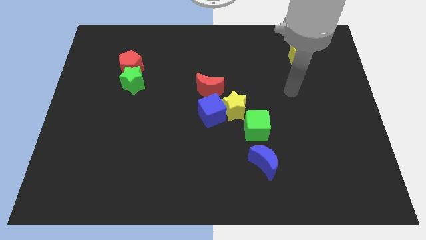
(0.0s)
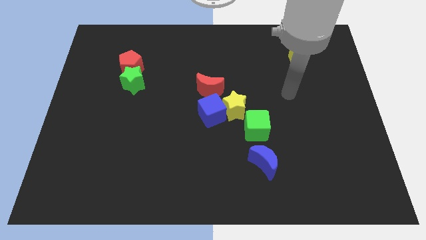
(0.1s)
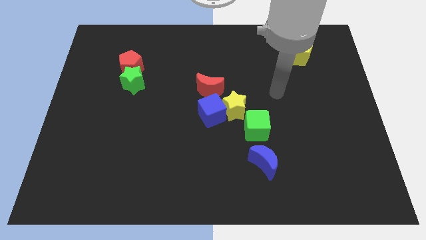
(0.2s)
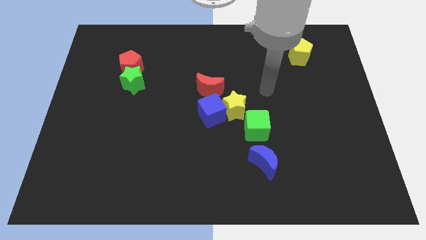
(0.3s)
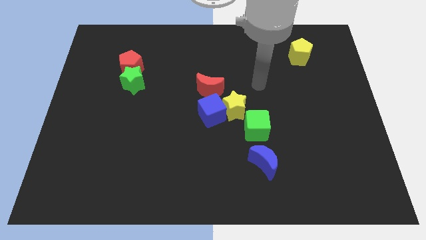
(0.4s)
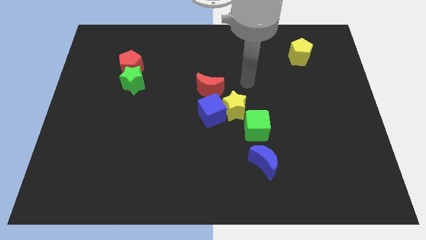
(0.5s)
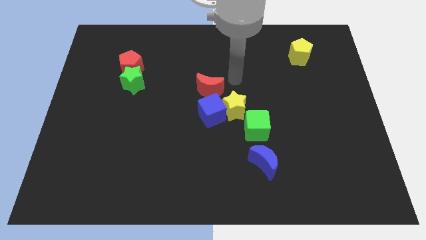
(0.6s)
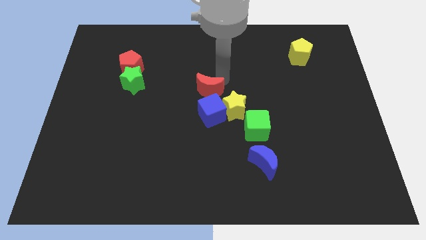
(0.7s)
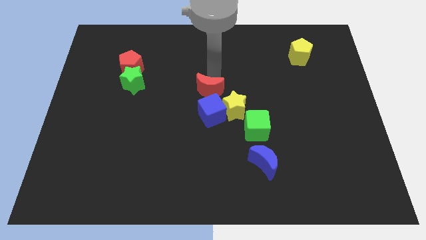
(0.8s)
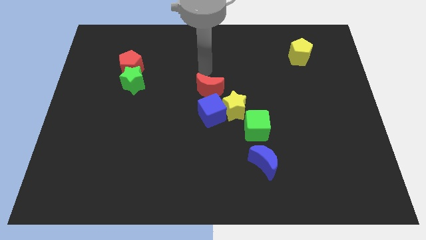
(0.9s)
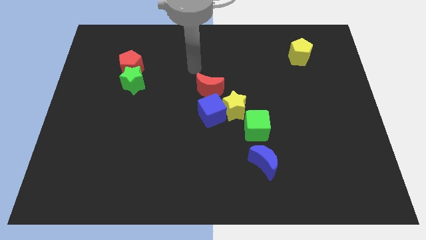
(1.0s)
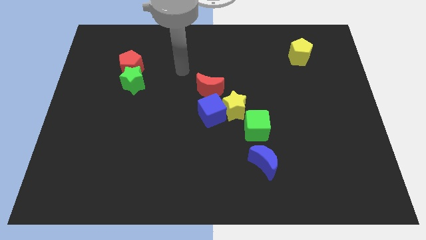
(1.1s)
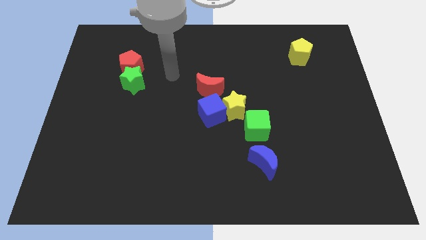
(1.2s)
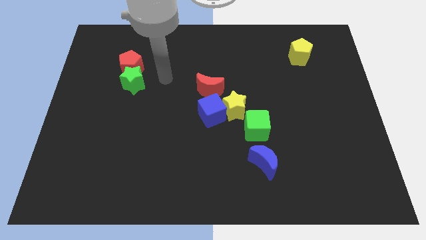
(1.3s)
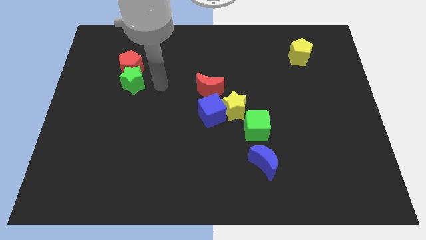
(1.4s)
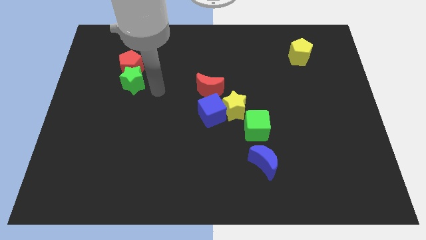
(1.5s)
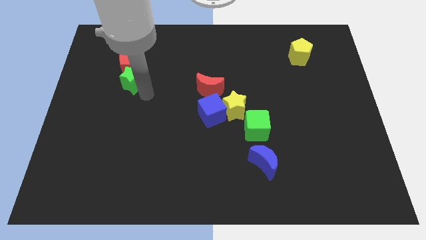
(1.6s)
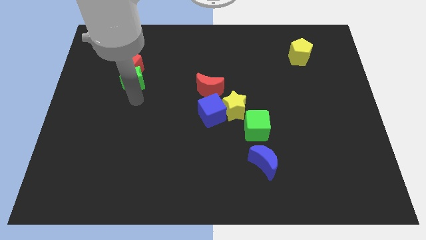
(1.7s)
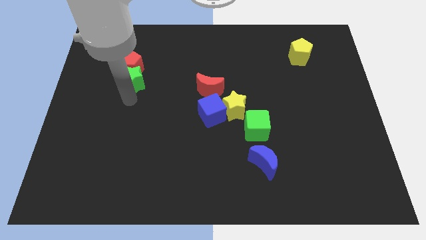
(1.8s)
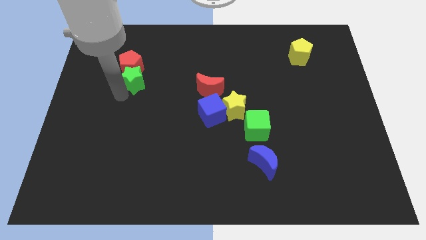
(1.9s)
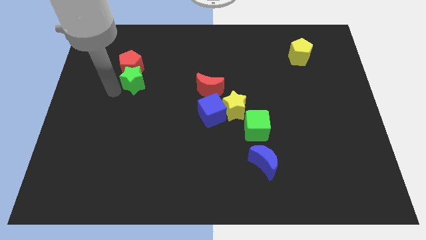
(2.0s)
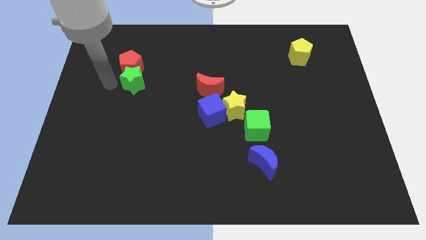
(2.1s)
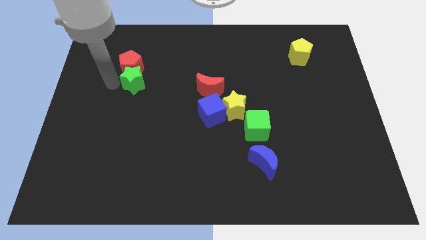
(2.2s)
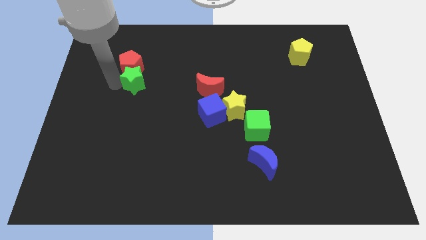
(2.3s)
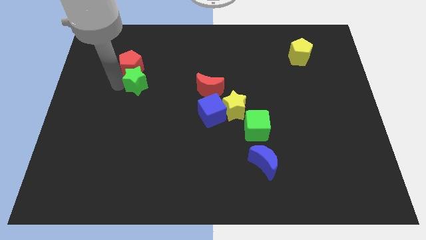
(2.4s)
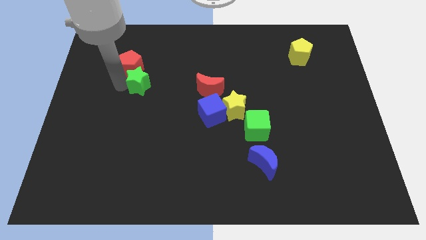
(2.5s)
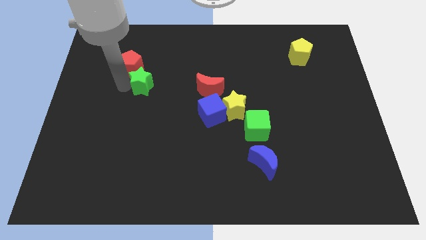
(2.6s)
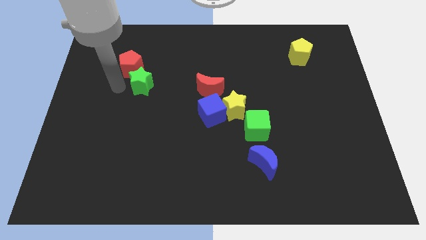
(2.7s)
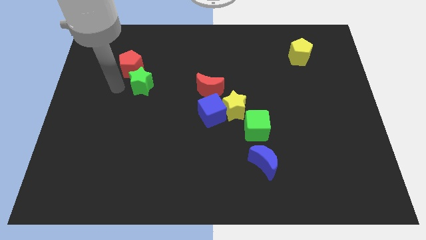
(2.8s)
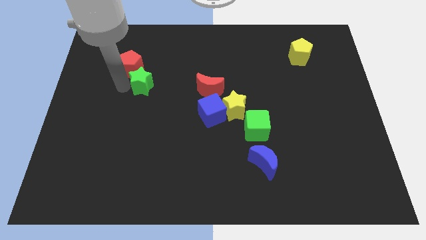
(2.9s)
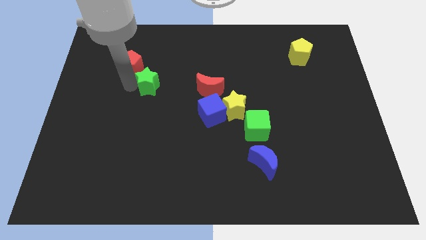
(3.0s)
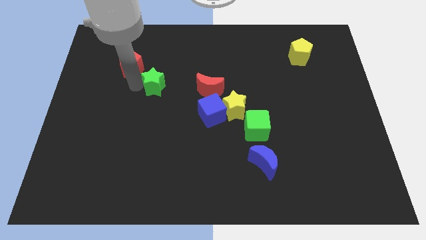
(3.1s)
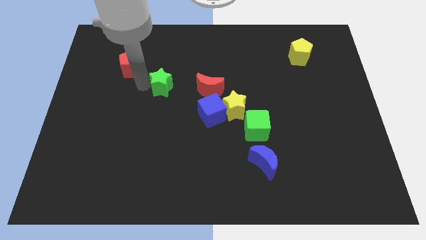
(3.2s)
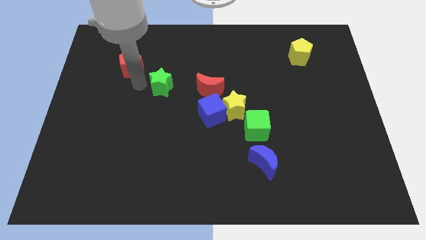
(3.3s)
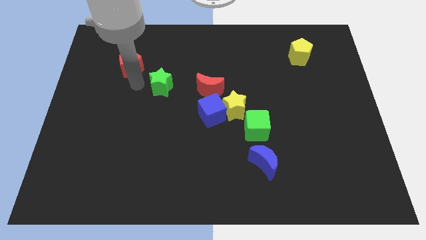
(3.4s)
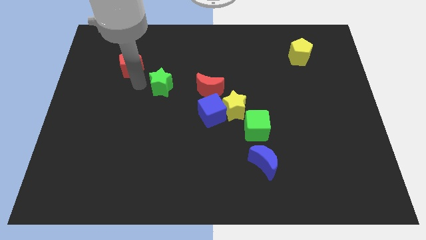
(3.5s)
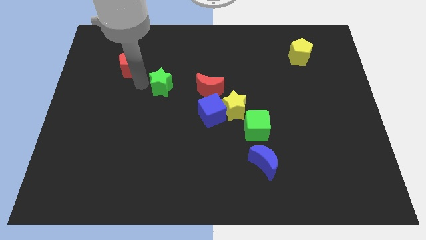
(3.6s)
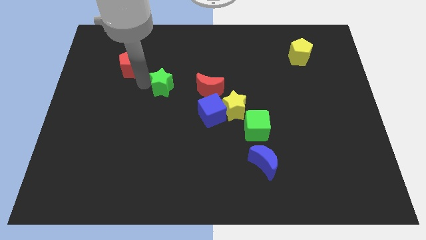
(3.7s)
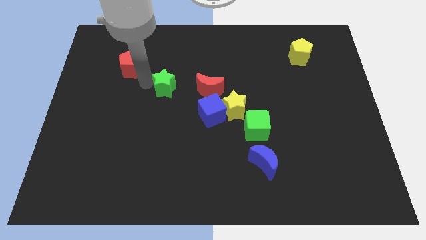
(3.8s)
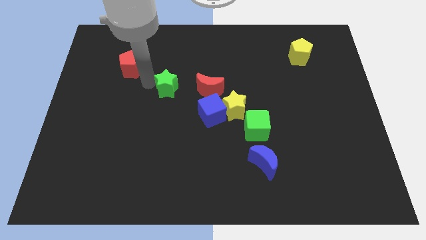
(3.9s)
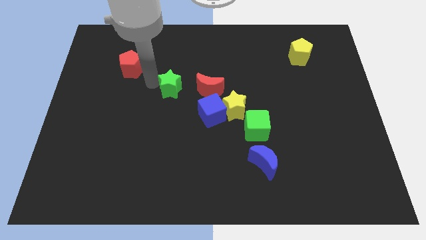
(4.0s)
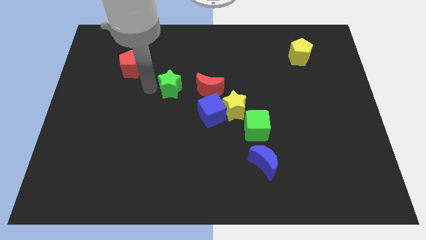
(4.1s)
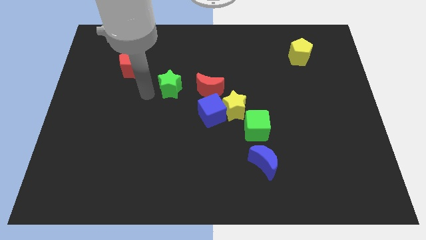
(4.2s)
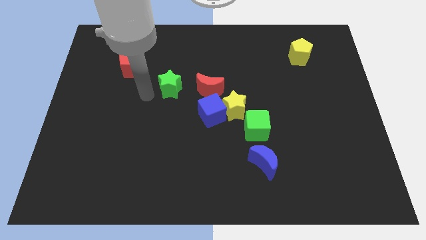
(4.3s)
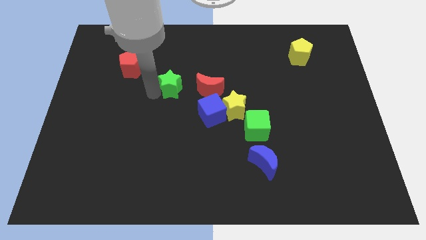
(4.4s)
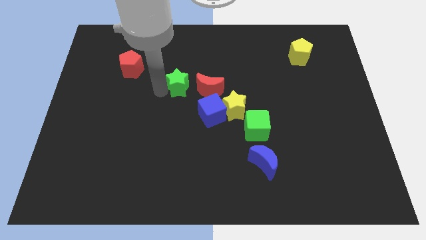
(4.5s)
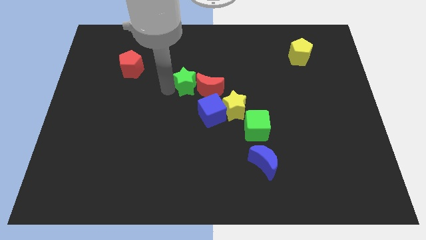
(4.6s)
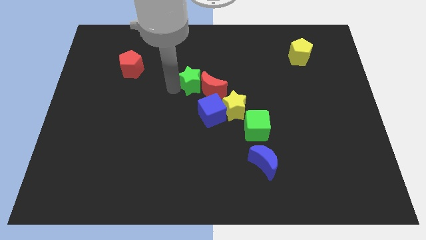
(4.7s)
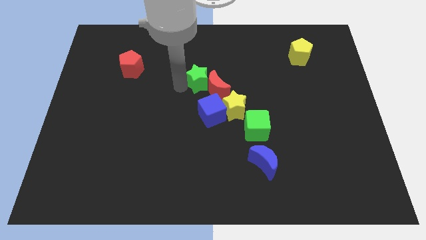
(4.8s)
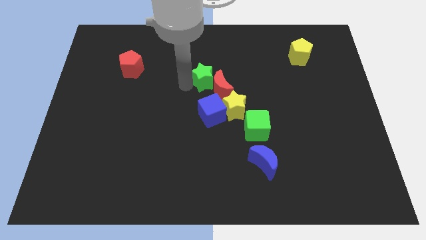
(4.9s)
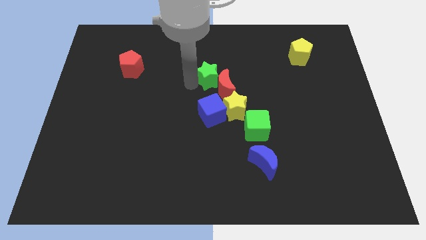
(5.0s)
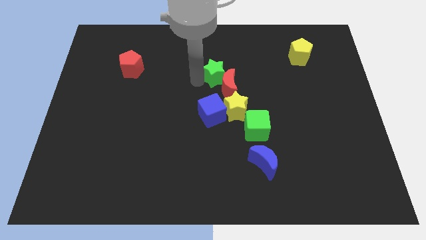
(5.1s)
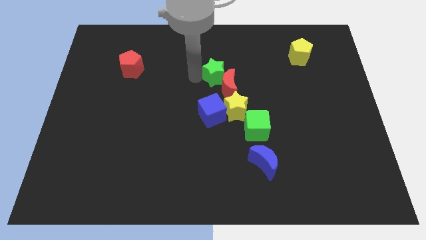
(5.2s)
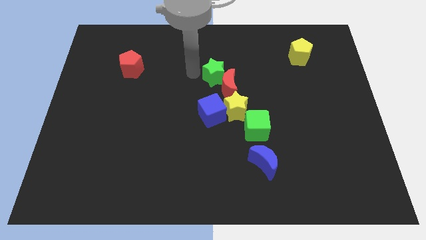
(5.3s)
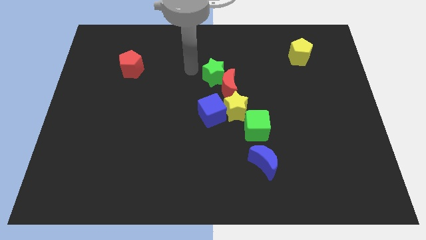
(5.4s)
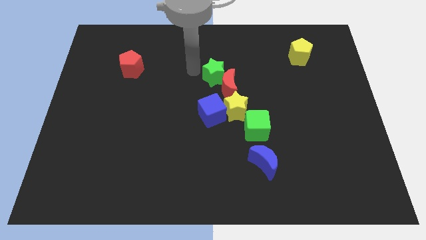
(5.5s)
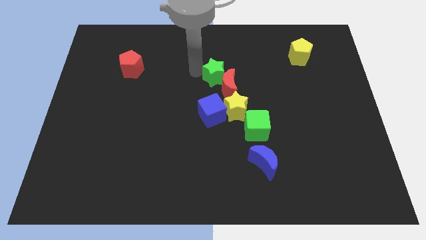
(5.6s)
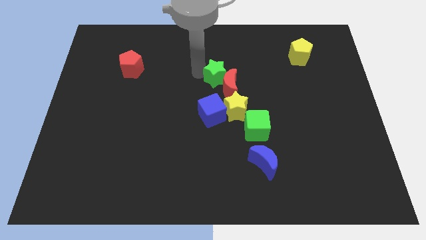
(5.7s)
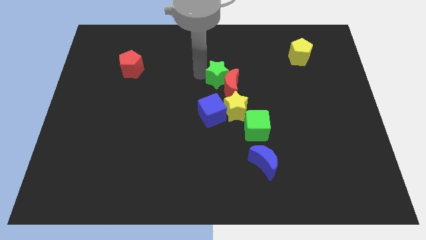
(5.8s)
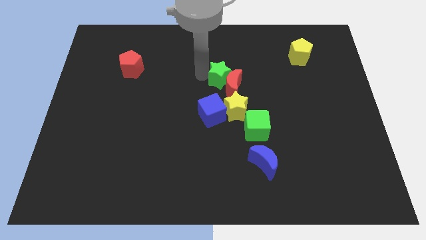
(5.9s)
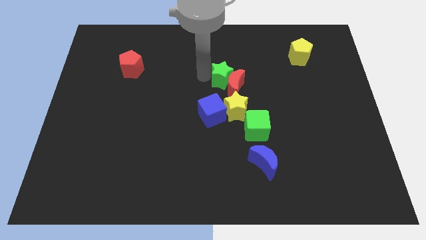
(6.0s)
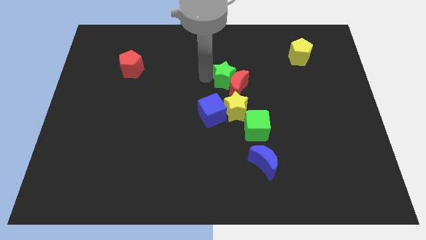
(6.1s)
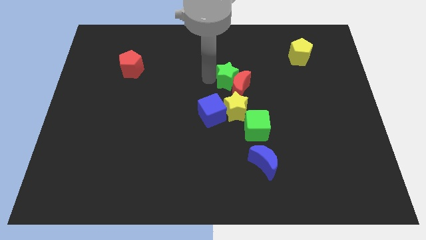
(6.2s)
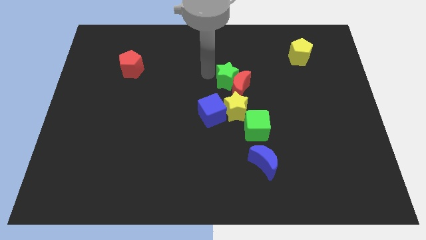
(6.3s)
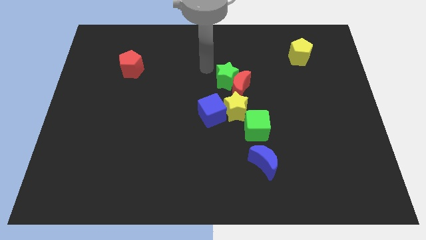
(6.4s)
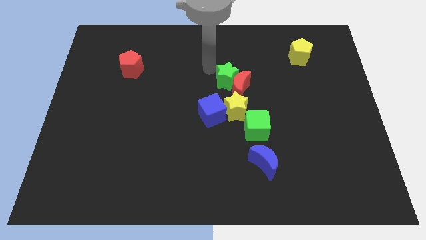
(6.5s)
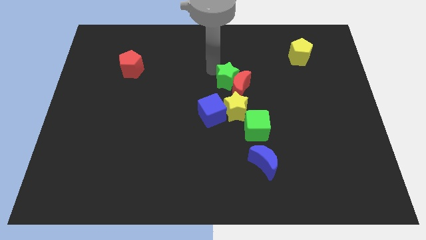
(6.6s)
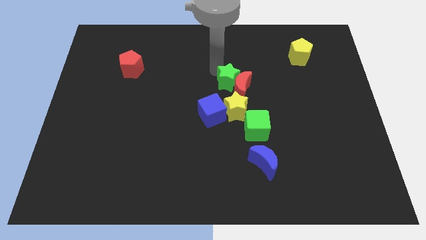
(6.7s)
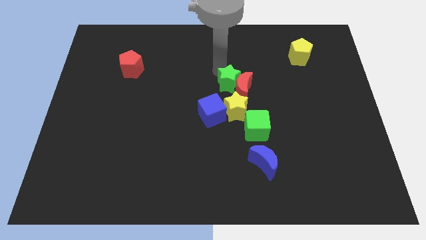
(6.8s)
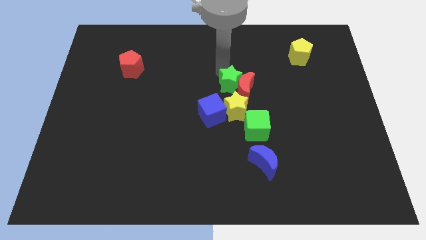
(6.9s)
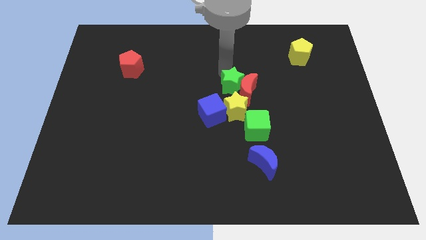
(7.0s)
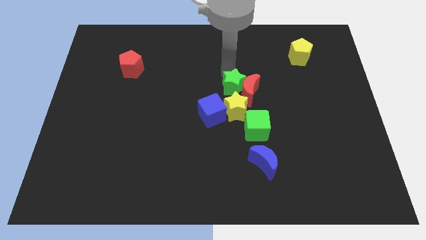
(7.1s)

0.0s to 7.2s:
slide the green star to the top side of the green cube
